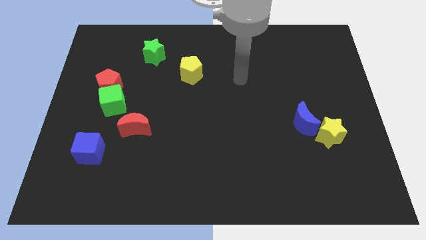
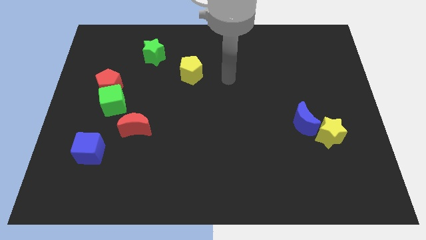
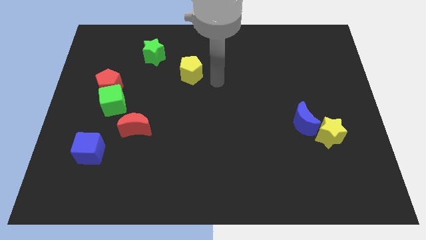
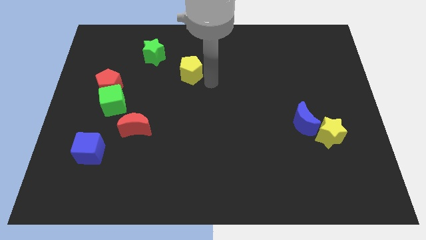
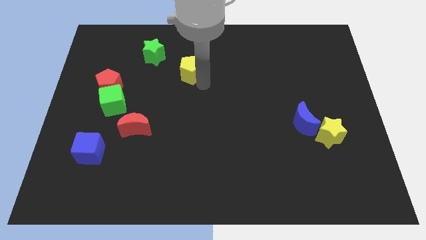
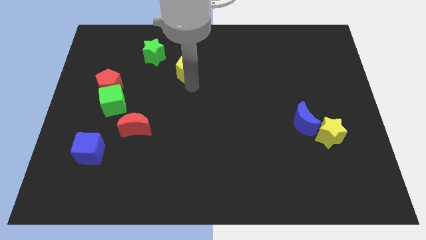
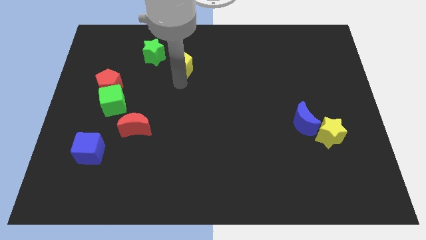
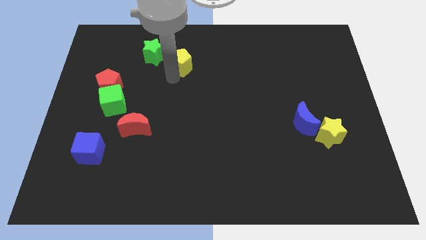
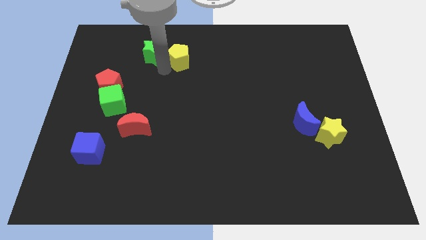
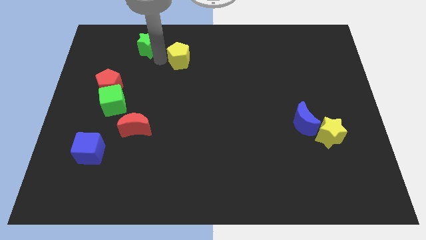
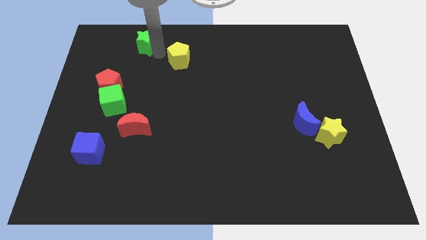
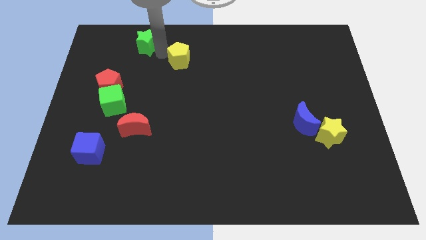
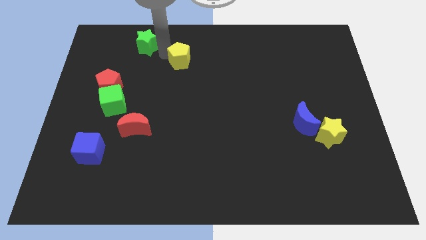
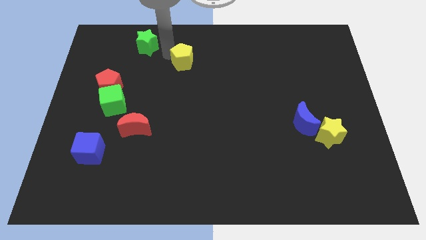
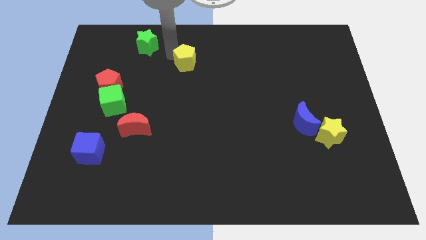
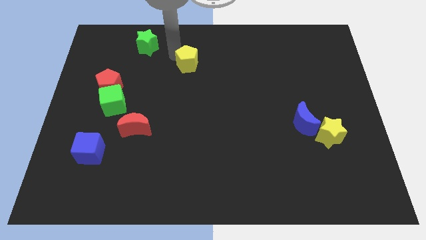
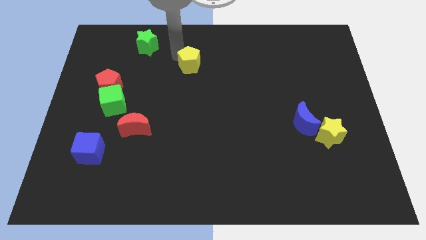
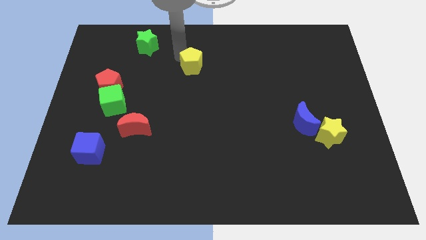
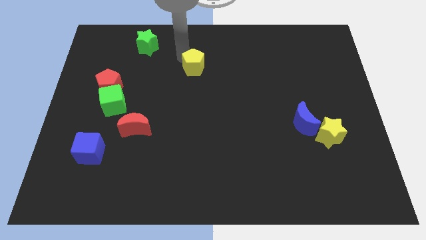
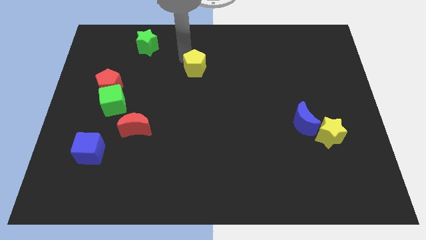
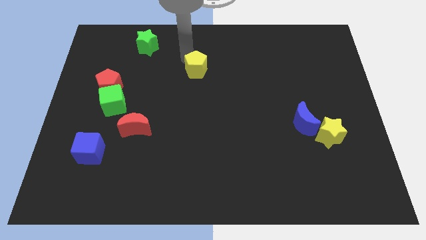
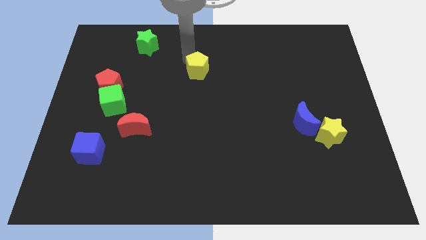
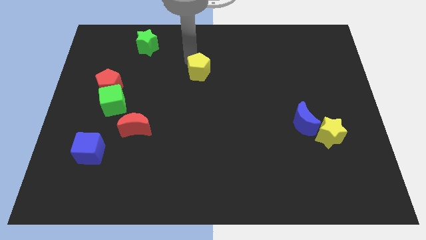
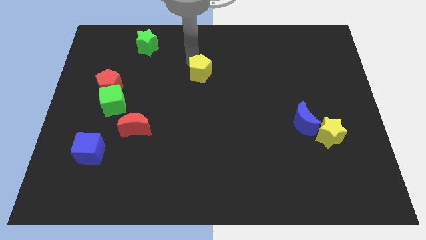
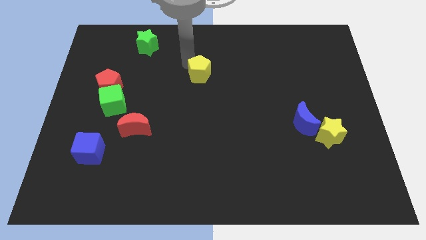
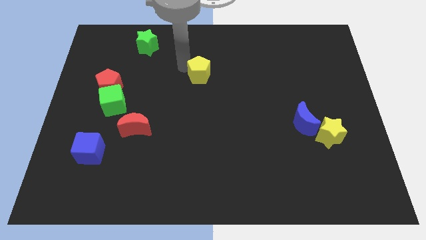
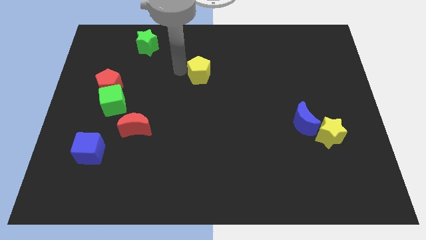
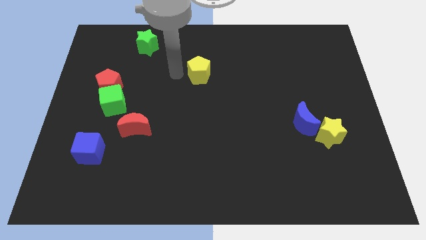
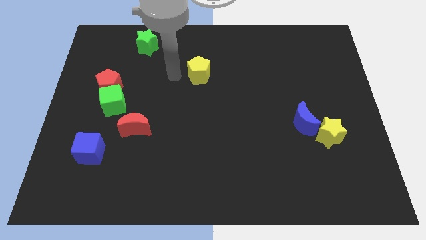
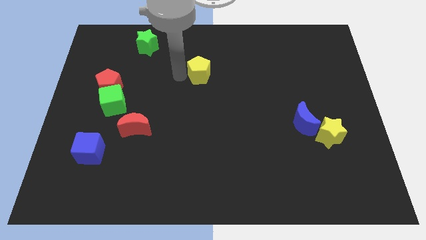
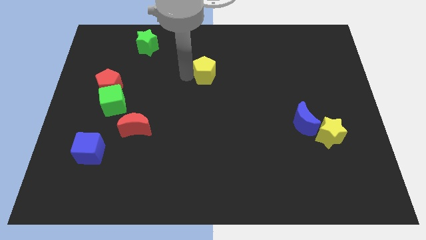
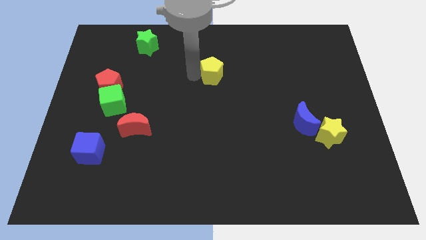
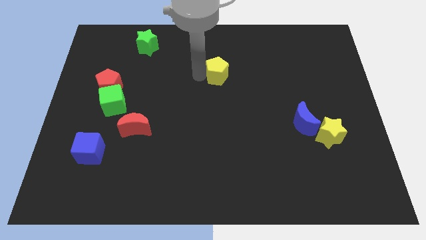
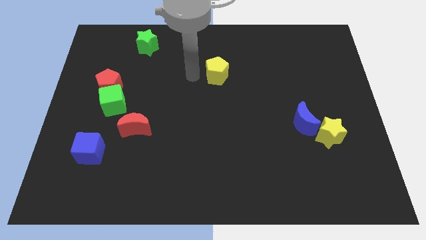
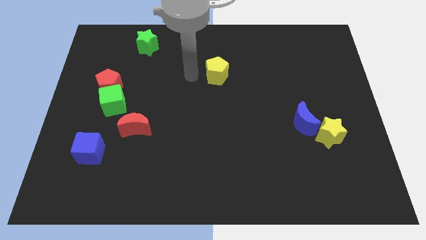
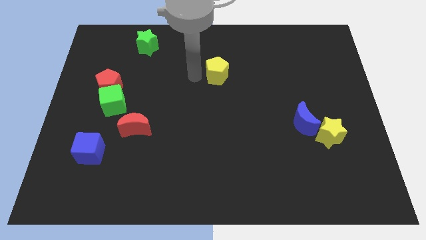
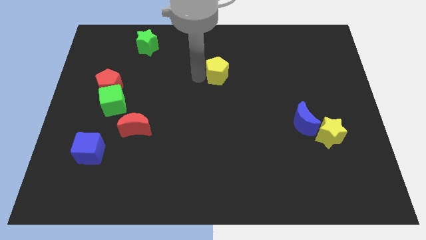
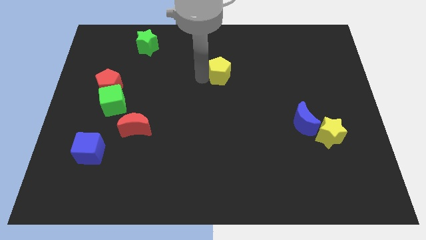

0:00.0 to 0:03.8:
move the yellow pentagon somewhat right

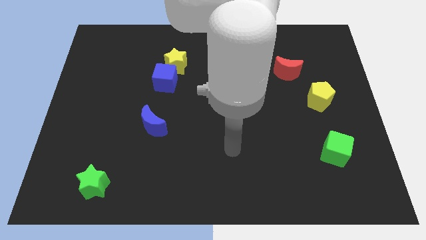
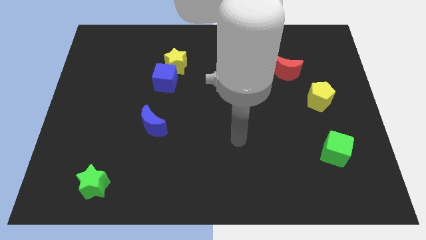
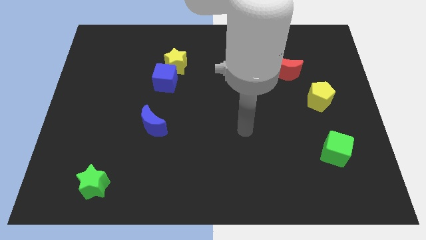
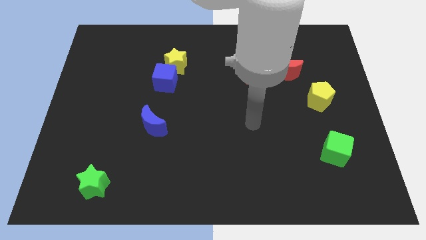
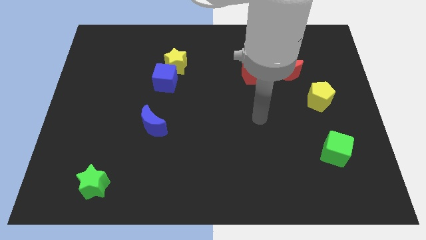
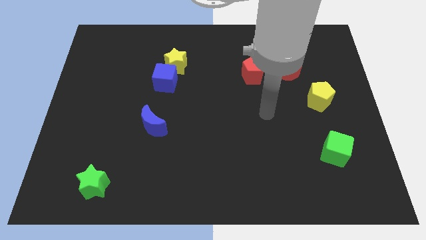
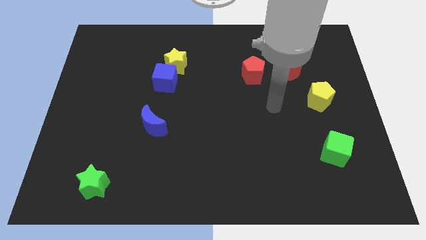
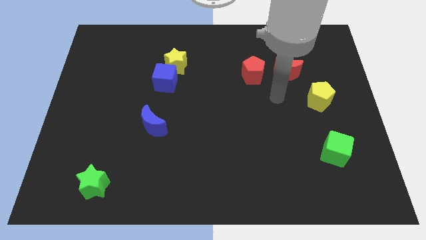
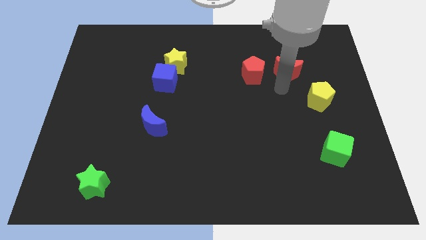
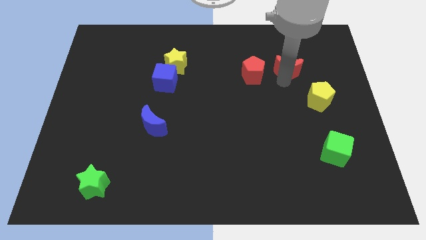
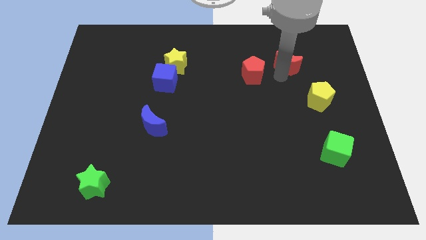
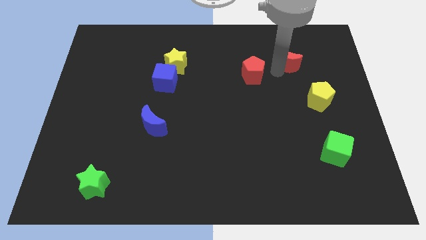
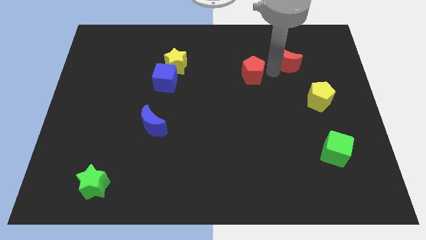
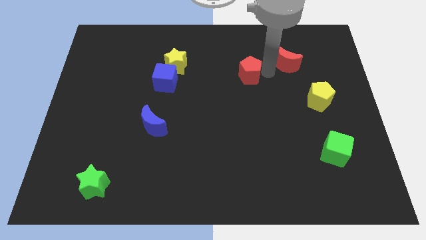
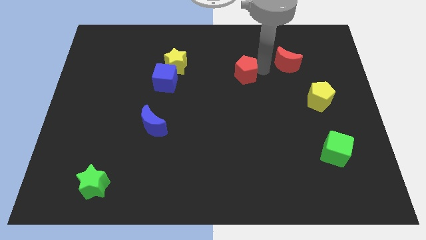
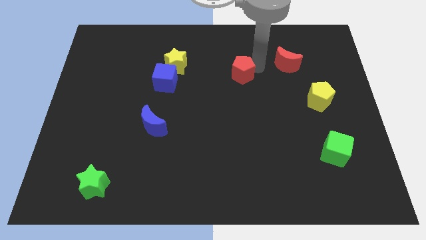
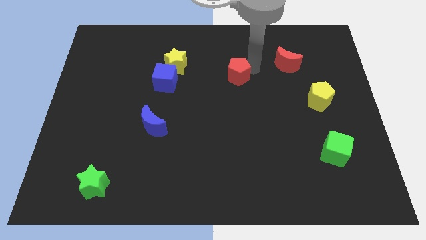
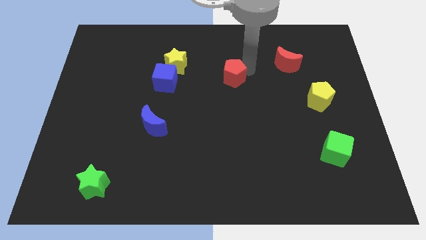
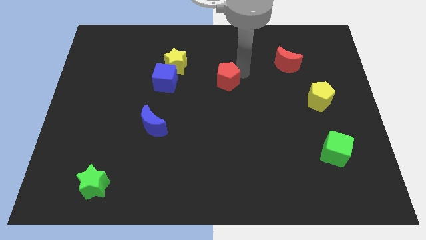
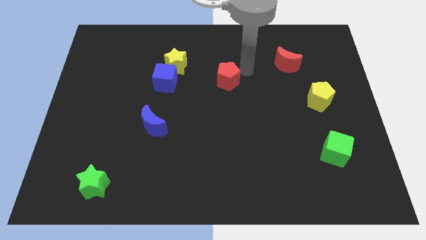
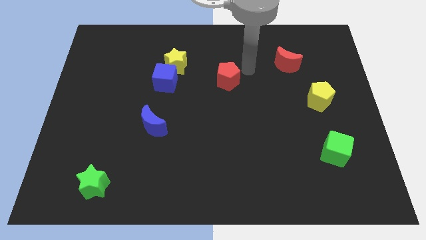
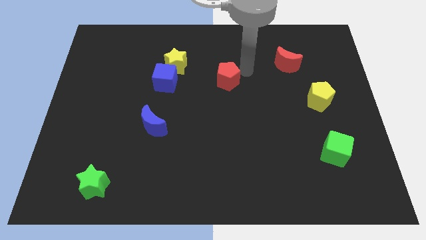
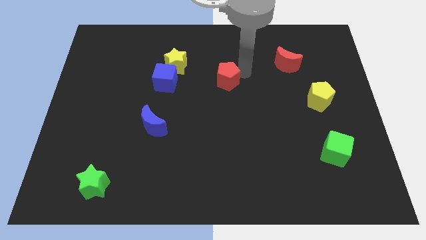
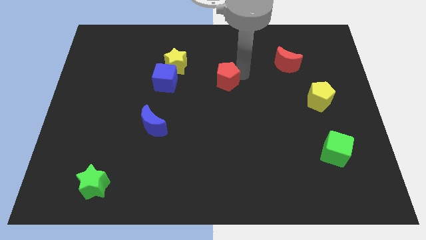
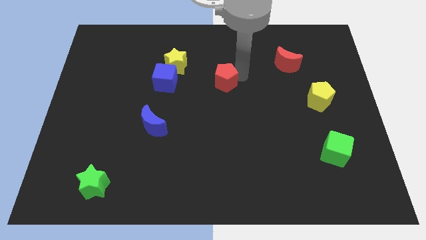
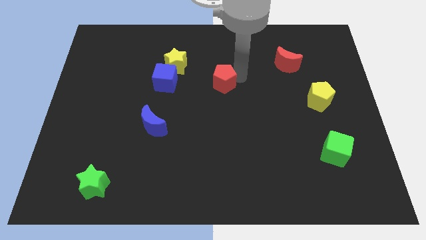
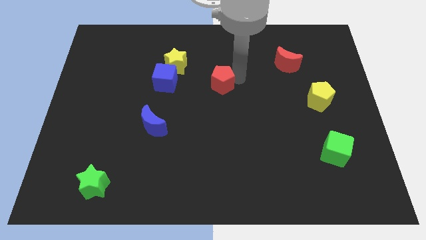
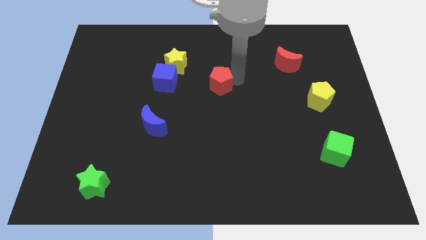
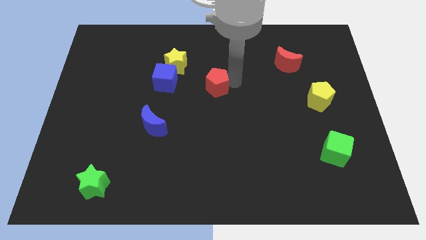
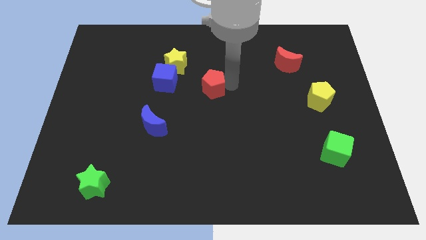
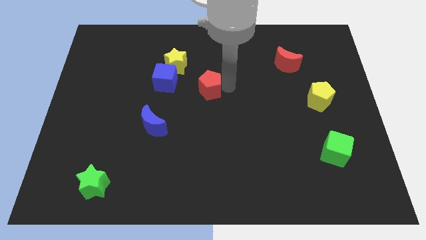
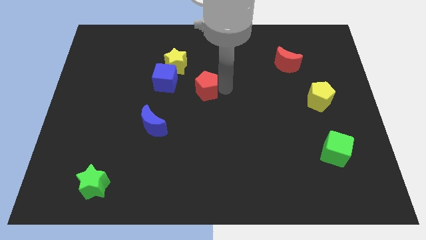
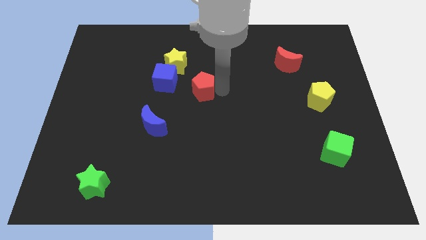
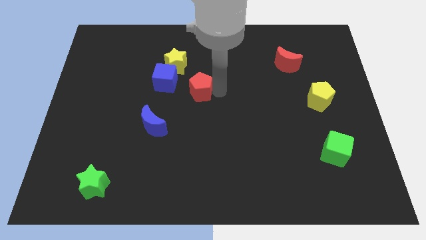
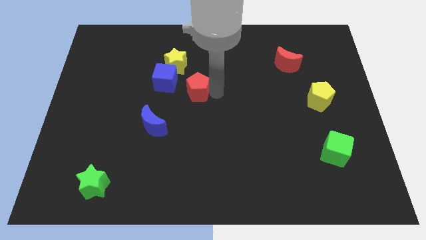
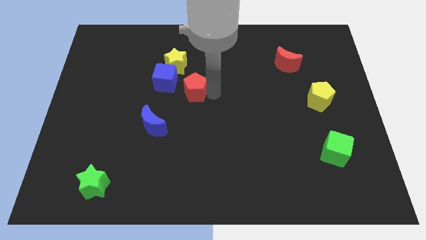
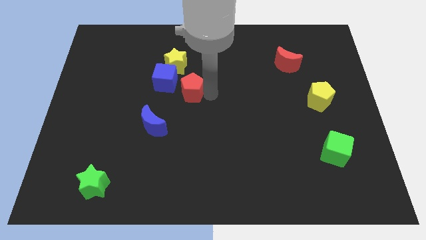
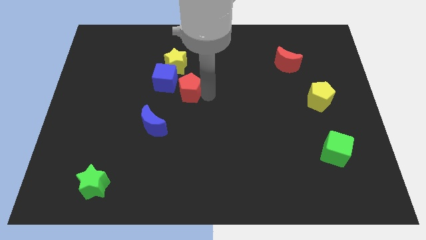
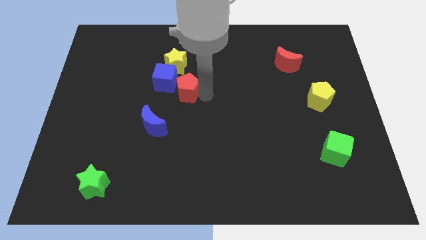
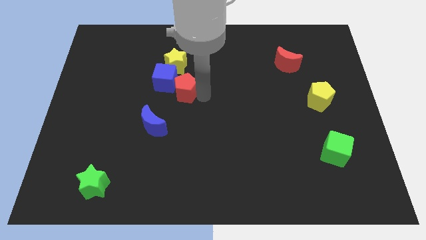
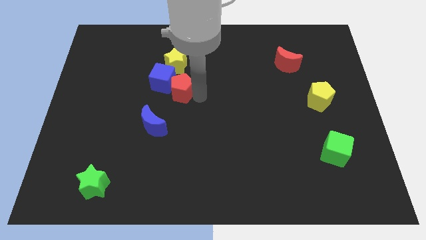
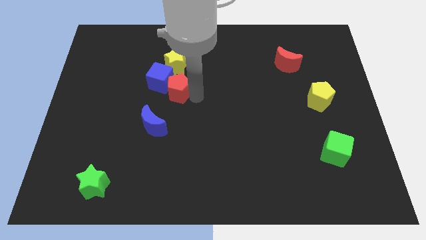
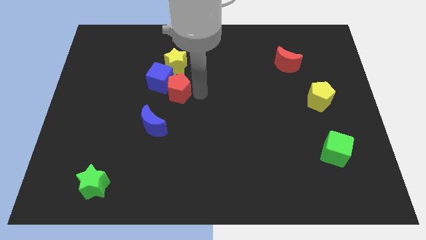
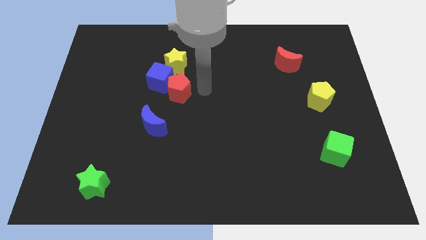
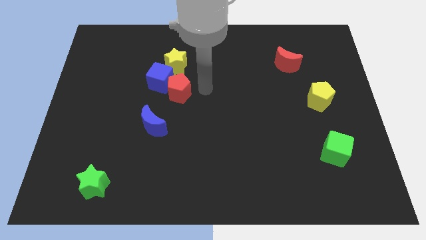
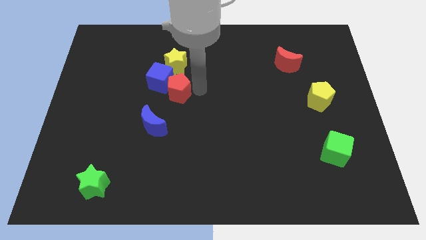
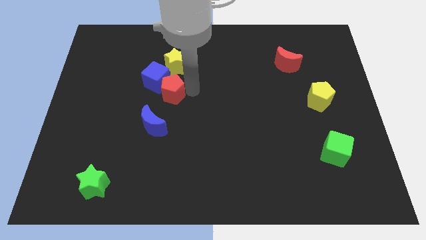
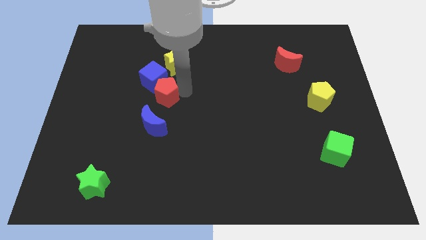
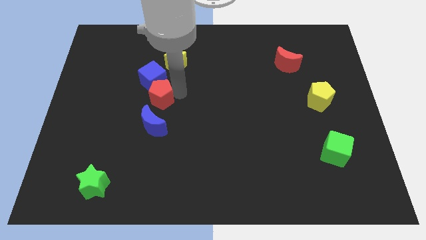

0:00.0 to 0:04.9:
move the red pentagon left
